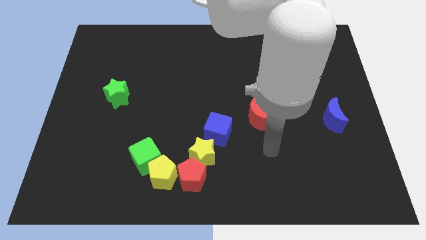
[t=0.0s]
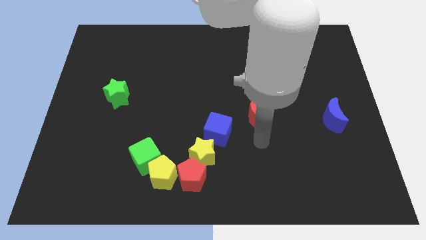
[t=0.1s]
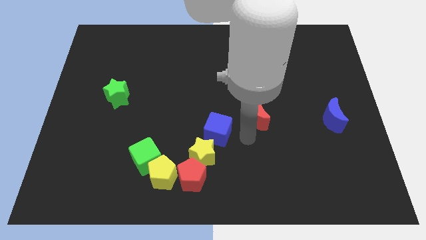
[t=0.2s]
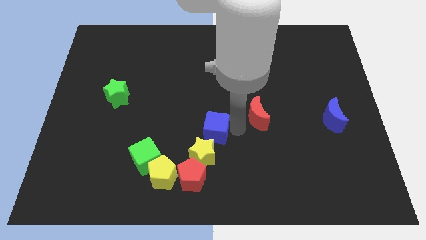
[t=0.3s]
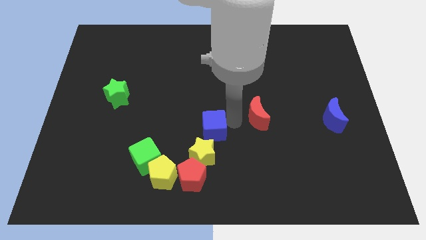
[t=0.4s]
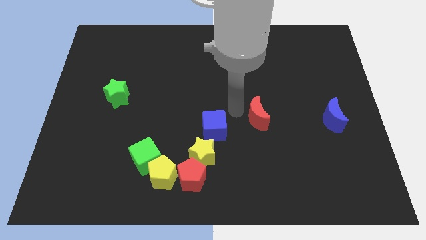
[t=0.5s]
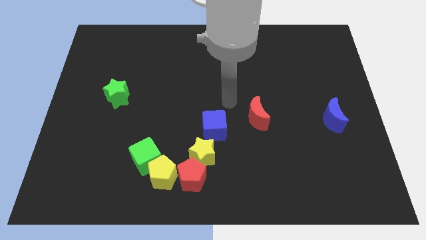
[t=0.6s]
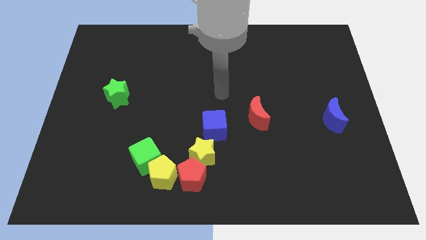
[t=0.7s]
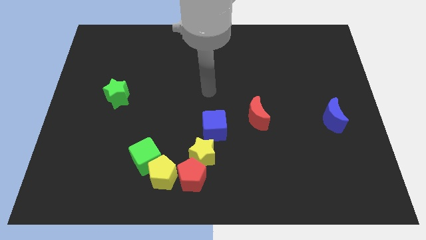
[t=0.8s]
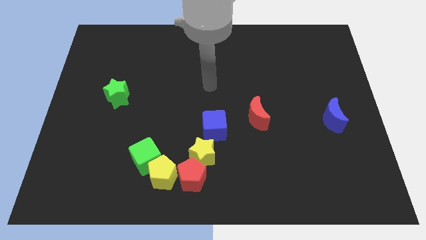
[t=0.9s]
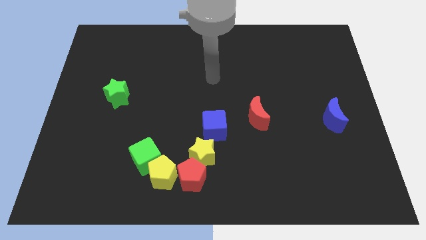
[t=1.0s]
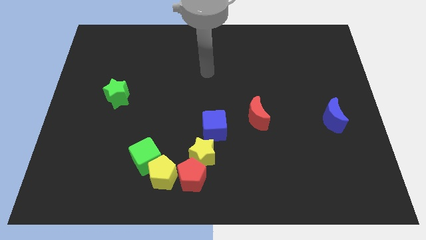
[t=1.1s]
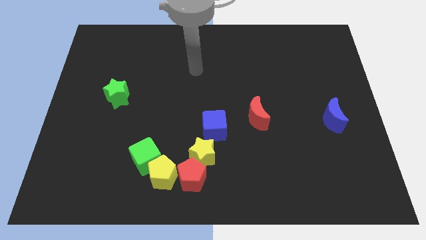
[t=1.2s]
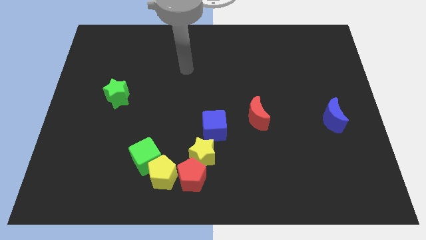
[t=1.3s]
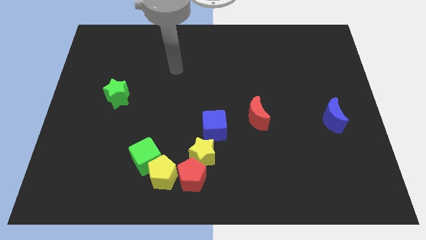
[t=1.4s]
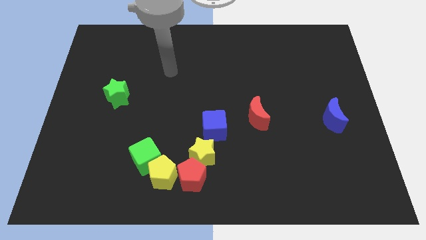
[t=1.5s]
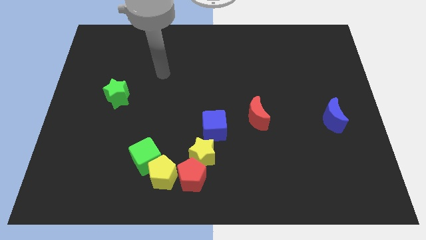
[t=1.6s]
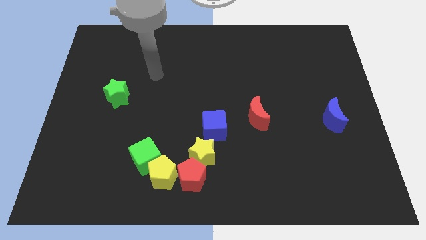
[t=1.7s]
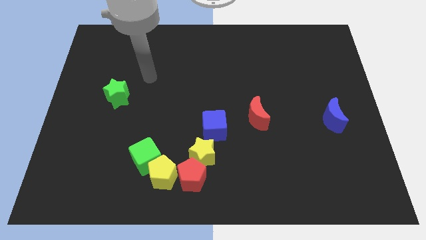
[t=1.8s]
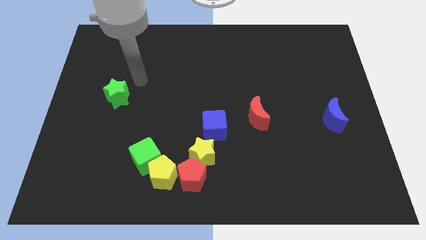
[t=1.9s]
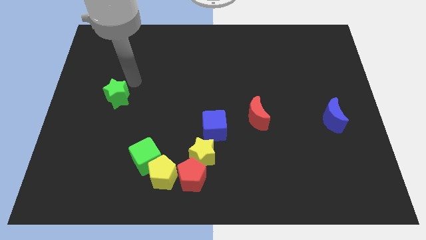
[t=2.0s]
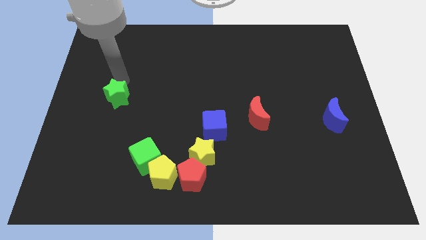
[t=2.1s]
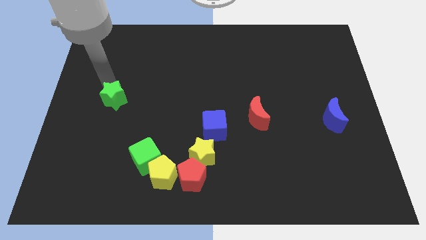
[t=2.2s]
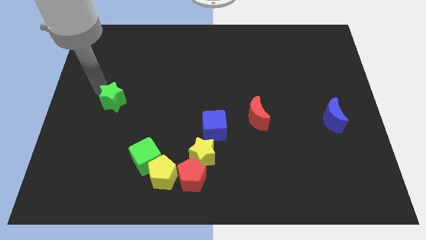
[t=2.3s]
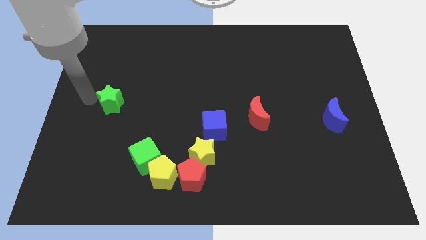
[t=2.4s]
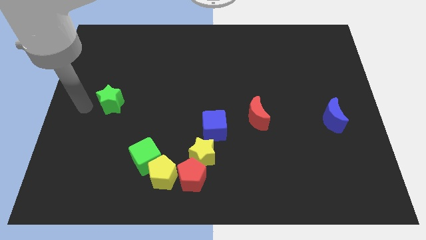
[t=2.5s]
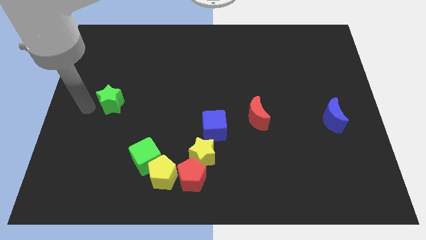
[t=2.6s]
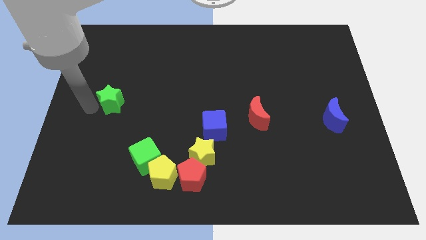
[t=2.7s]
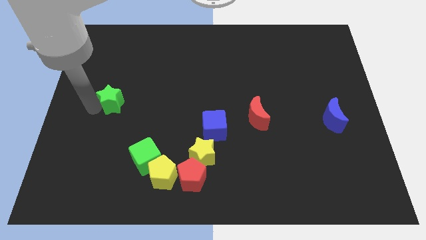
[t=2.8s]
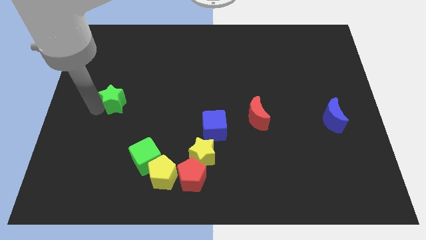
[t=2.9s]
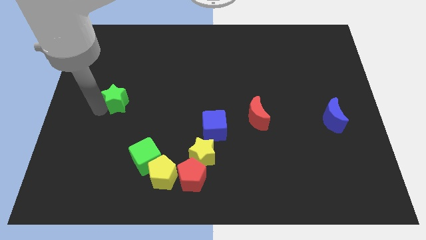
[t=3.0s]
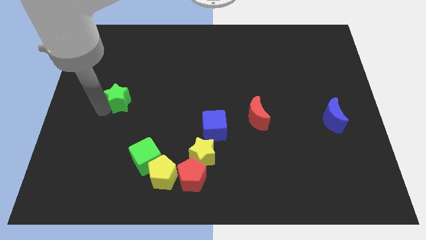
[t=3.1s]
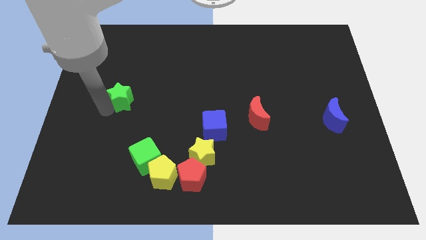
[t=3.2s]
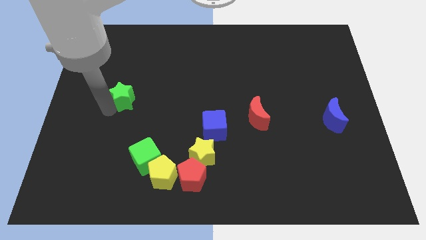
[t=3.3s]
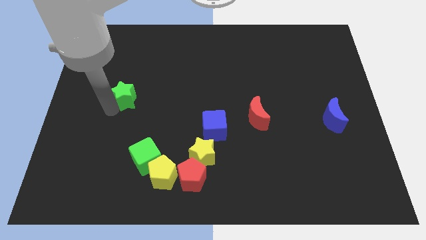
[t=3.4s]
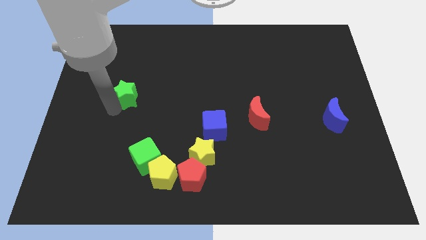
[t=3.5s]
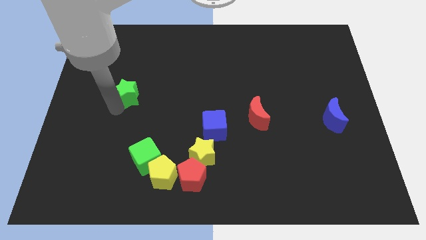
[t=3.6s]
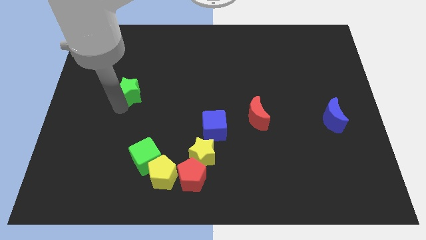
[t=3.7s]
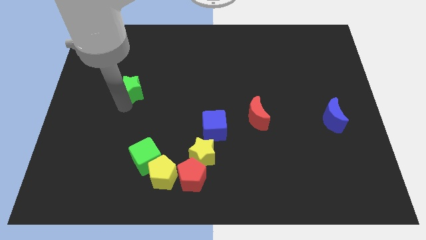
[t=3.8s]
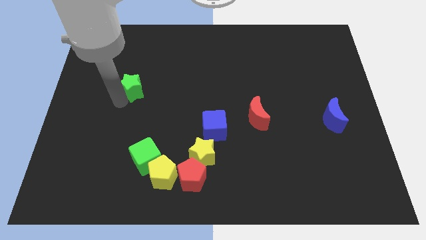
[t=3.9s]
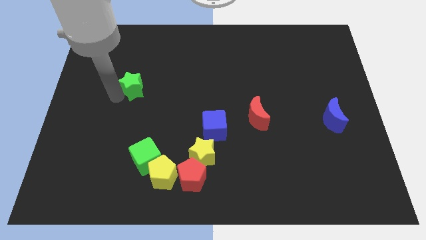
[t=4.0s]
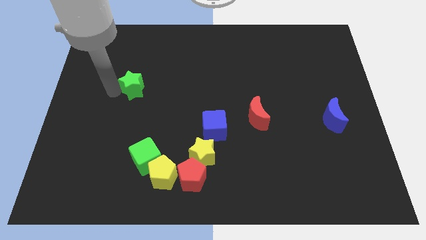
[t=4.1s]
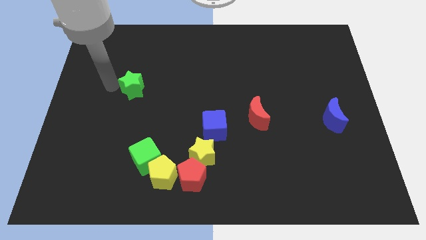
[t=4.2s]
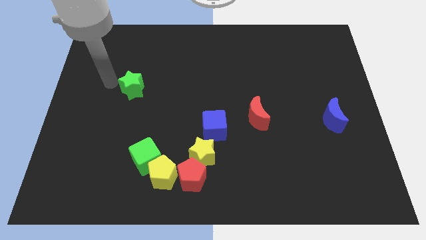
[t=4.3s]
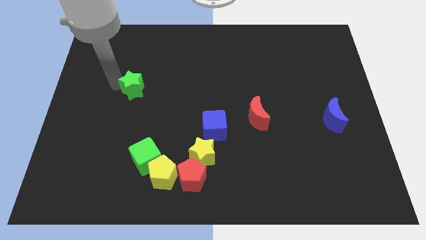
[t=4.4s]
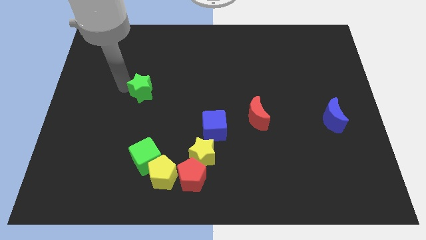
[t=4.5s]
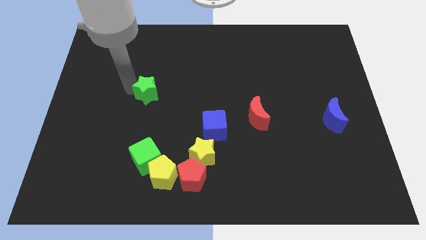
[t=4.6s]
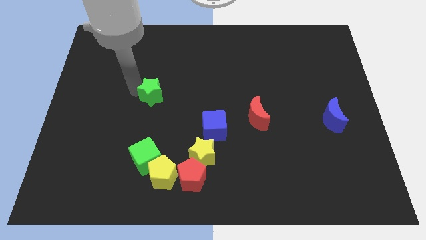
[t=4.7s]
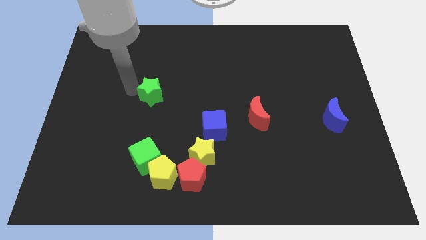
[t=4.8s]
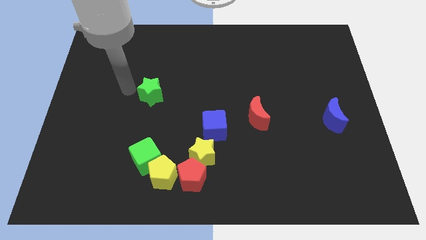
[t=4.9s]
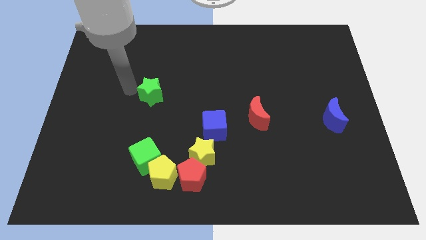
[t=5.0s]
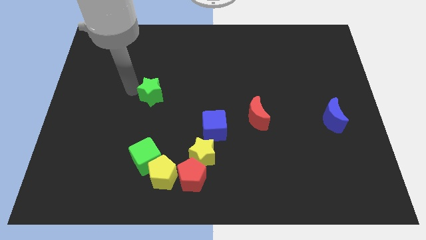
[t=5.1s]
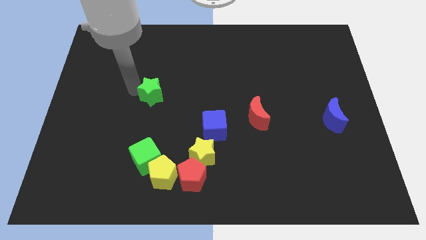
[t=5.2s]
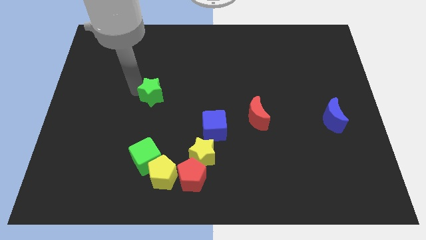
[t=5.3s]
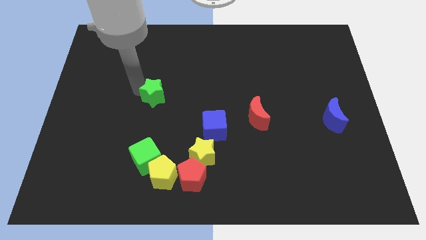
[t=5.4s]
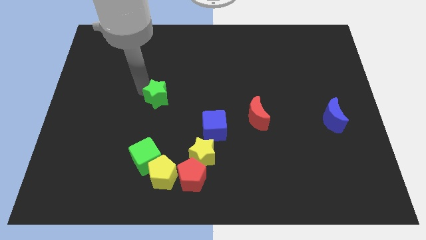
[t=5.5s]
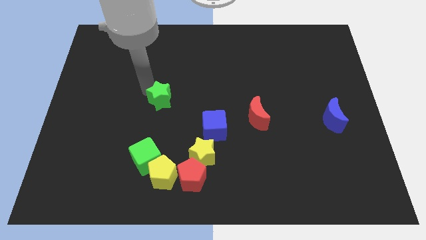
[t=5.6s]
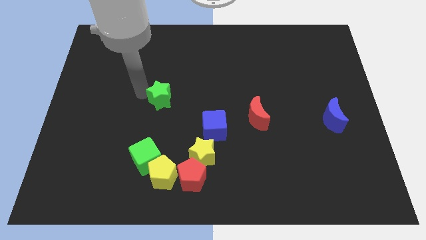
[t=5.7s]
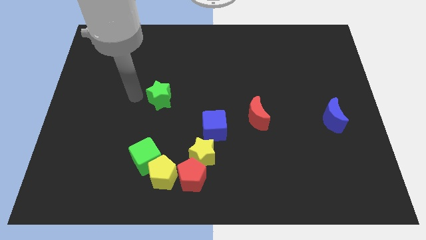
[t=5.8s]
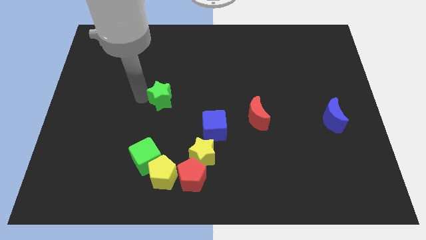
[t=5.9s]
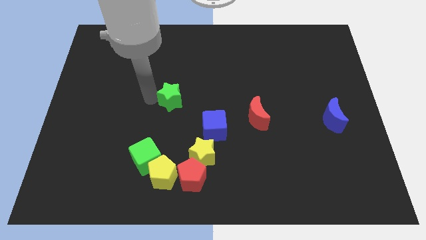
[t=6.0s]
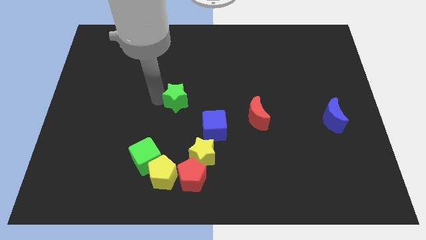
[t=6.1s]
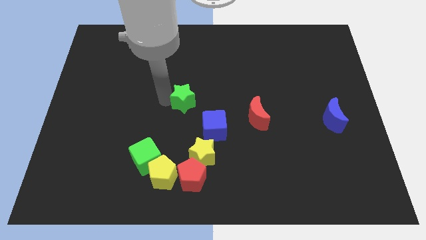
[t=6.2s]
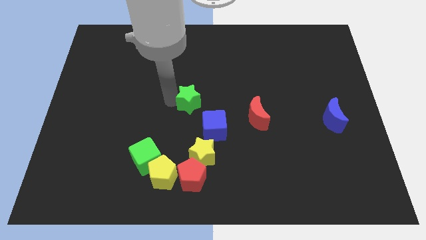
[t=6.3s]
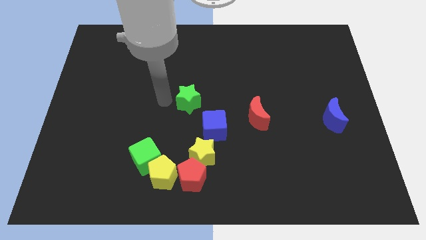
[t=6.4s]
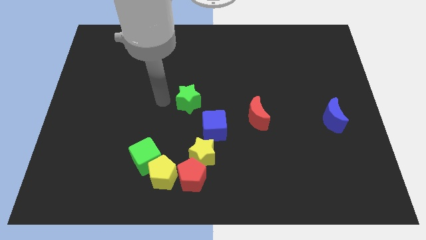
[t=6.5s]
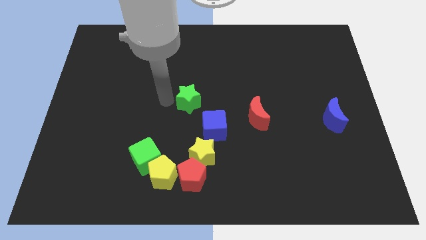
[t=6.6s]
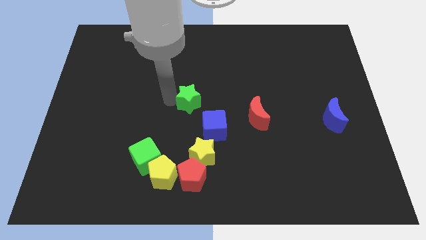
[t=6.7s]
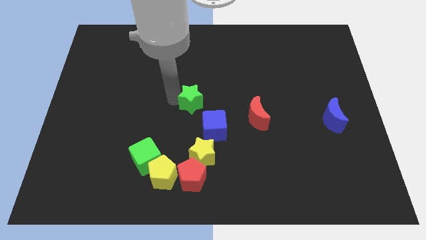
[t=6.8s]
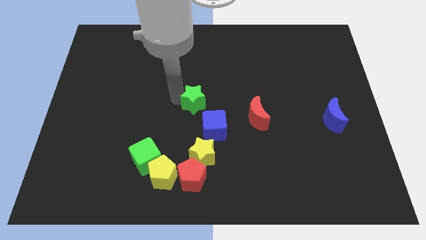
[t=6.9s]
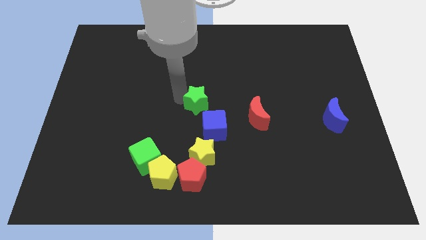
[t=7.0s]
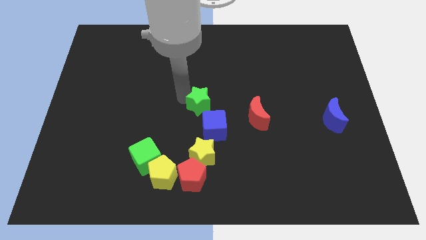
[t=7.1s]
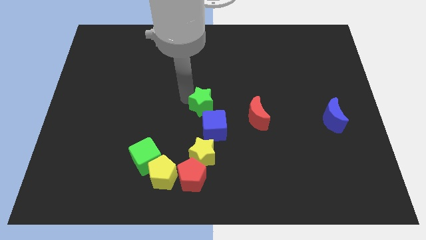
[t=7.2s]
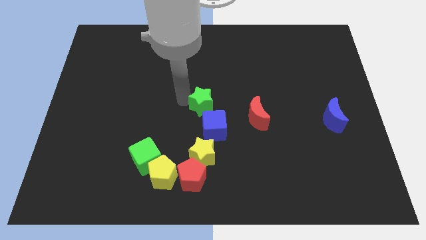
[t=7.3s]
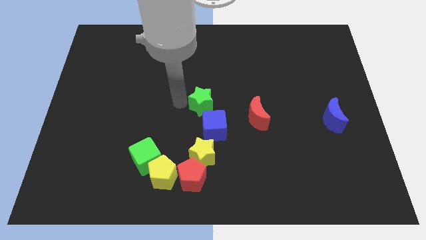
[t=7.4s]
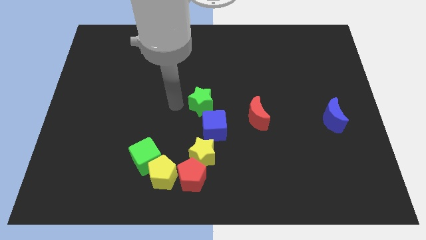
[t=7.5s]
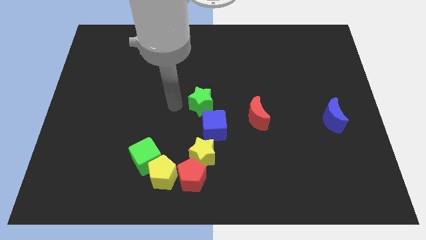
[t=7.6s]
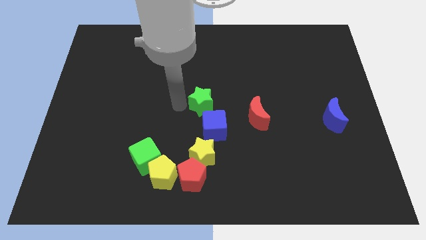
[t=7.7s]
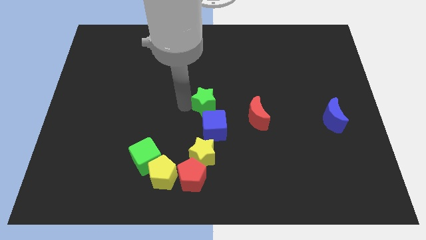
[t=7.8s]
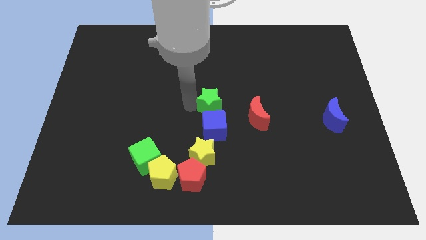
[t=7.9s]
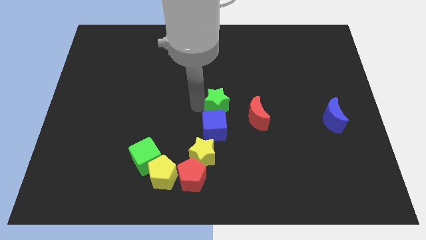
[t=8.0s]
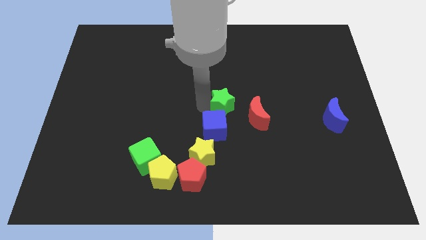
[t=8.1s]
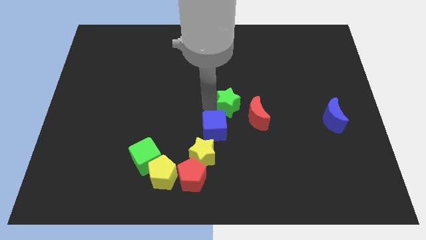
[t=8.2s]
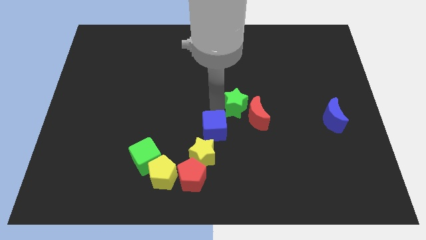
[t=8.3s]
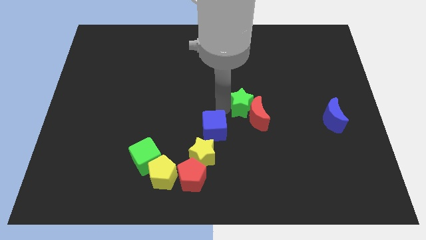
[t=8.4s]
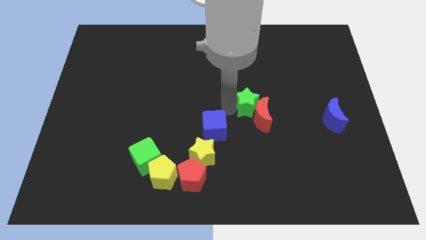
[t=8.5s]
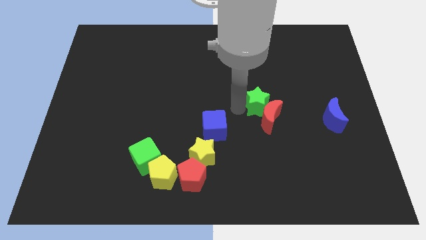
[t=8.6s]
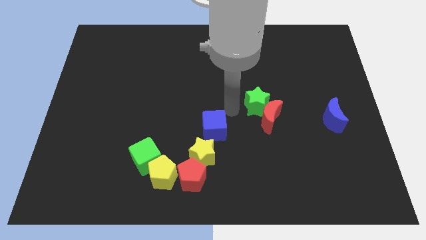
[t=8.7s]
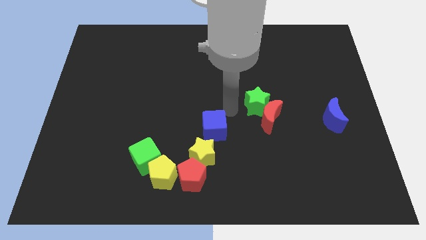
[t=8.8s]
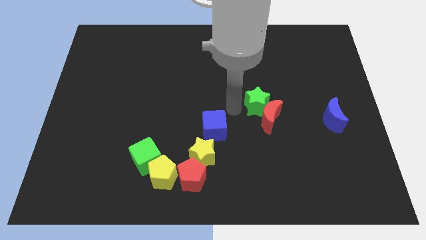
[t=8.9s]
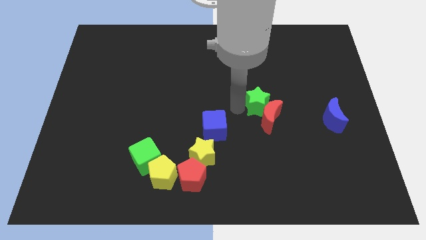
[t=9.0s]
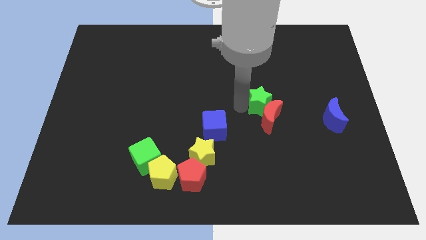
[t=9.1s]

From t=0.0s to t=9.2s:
slide the green star to the top right side of the red moon
